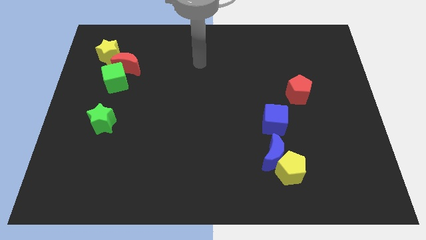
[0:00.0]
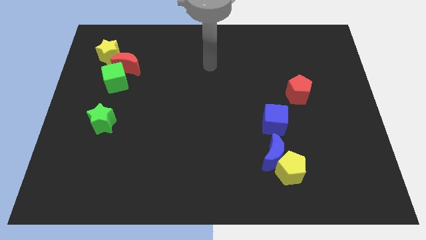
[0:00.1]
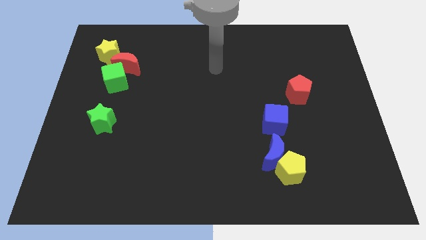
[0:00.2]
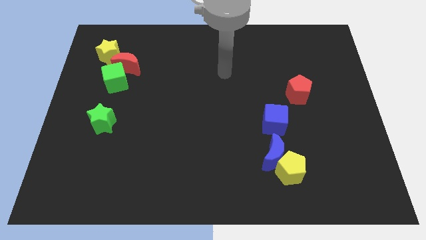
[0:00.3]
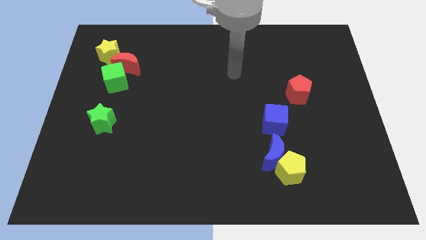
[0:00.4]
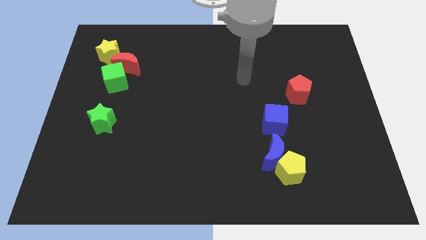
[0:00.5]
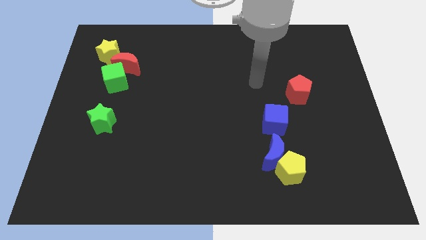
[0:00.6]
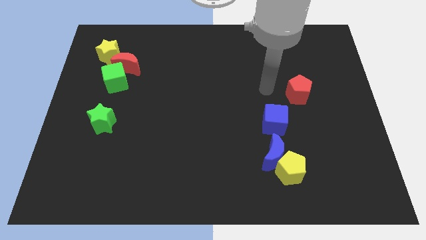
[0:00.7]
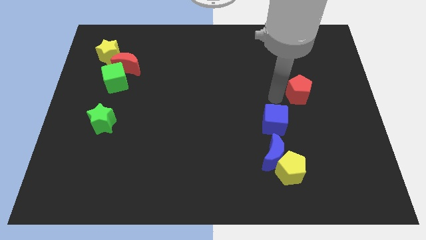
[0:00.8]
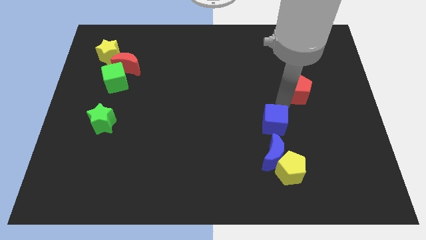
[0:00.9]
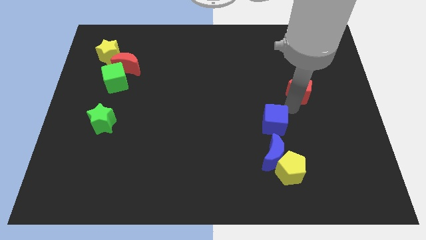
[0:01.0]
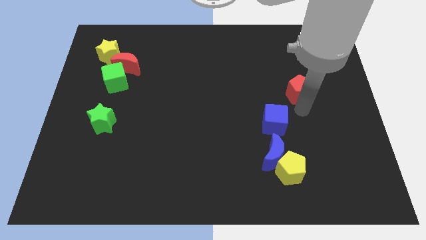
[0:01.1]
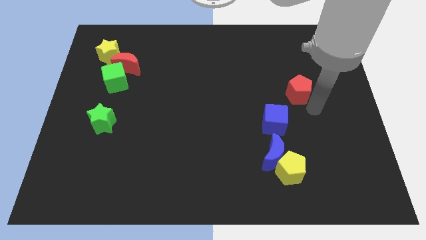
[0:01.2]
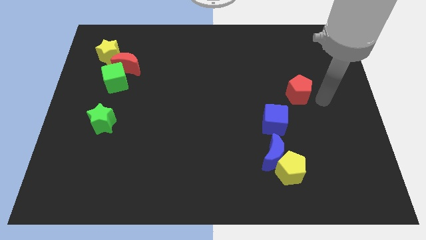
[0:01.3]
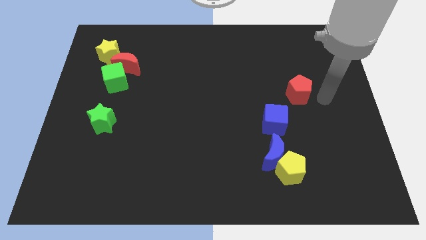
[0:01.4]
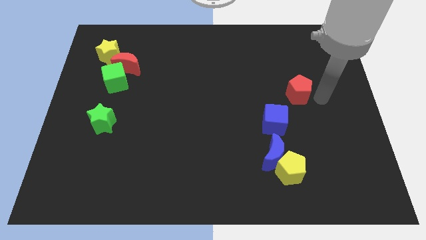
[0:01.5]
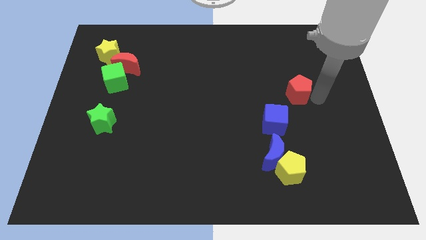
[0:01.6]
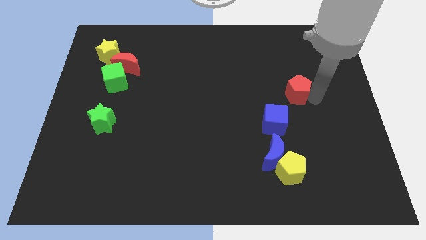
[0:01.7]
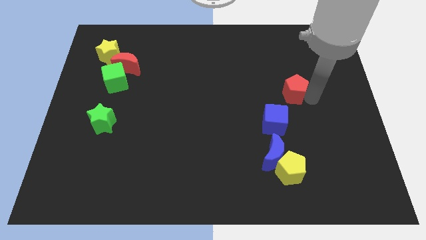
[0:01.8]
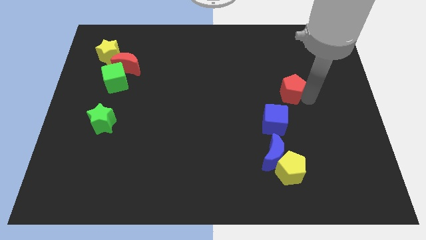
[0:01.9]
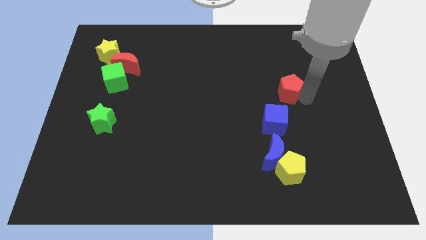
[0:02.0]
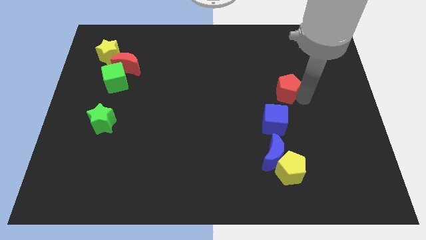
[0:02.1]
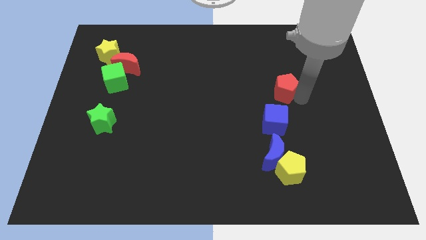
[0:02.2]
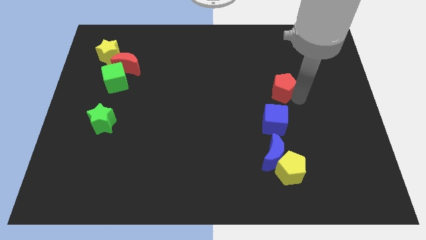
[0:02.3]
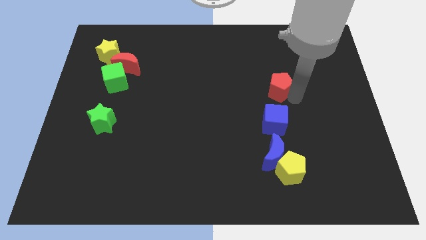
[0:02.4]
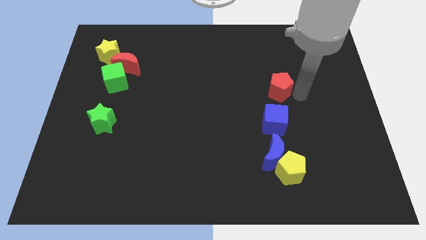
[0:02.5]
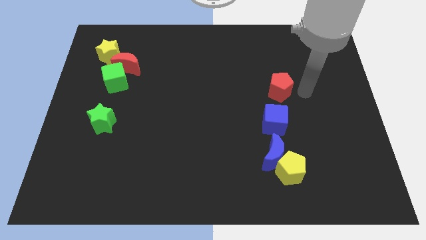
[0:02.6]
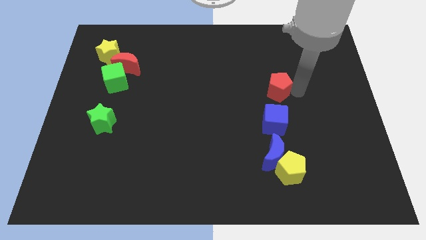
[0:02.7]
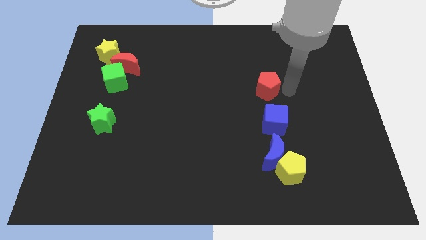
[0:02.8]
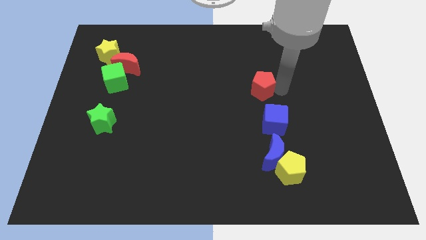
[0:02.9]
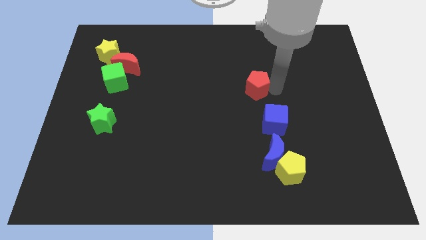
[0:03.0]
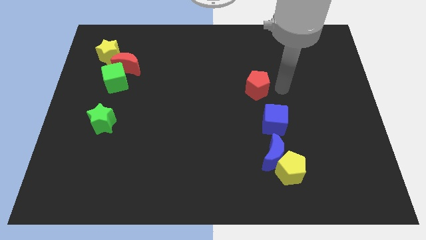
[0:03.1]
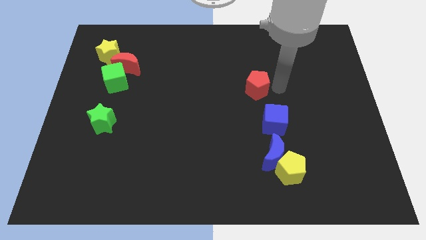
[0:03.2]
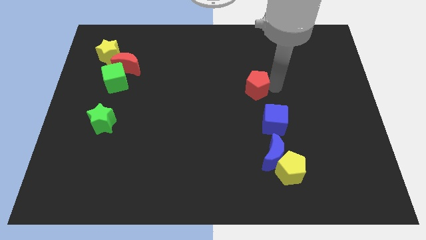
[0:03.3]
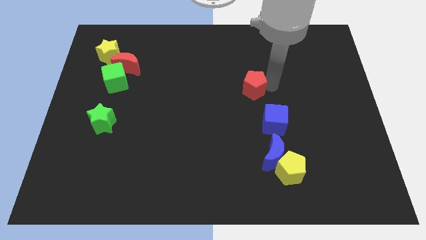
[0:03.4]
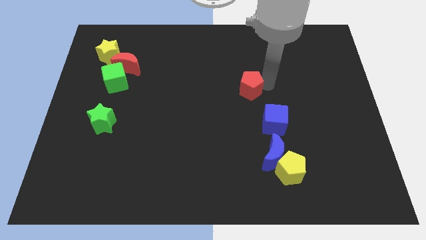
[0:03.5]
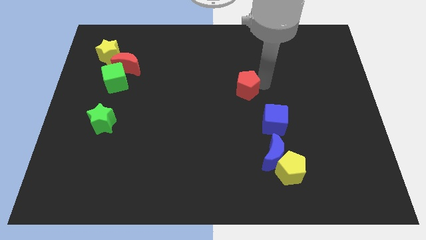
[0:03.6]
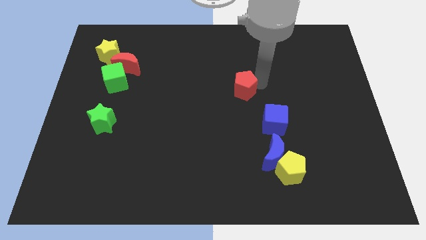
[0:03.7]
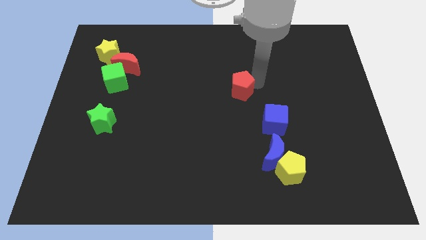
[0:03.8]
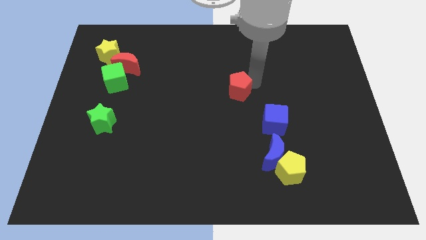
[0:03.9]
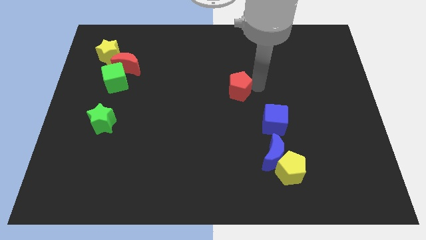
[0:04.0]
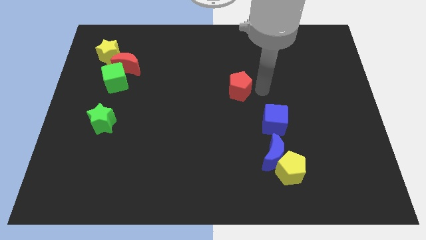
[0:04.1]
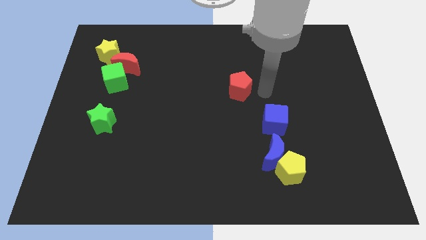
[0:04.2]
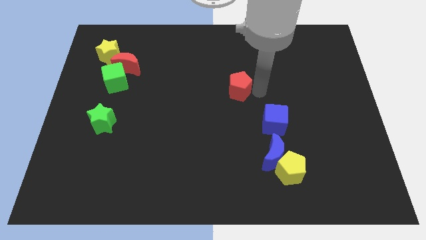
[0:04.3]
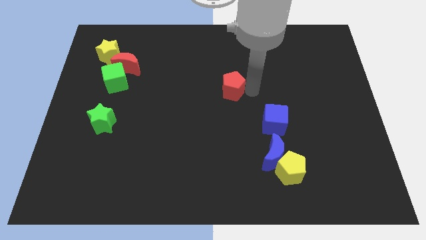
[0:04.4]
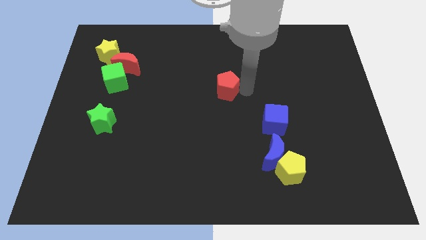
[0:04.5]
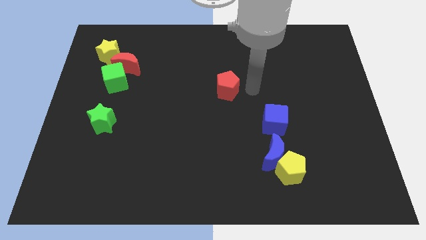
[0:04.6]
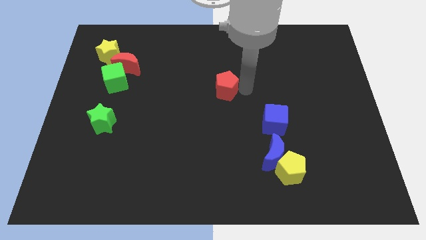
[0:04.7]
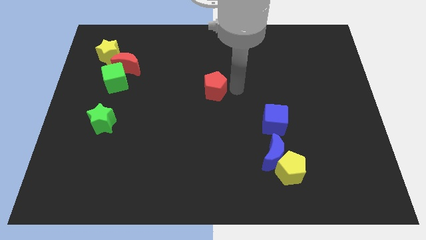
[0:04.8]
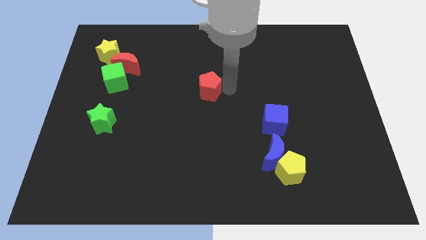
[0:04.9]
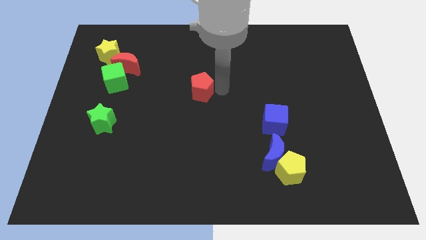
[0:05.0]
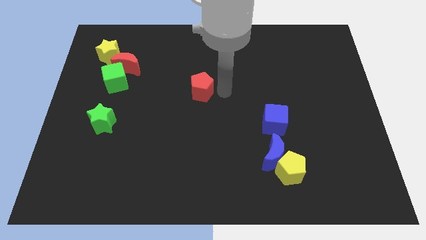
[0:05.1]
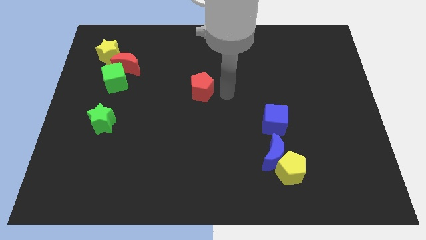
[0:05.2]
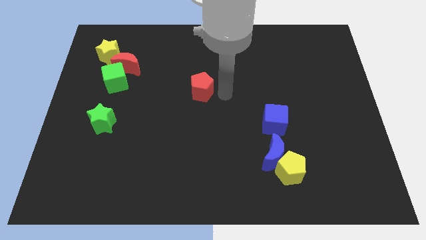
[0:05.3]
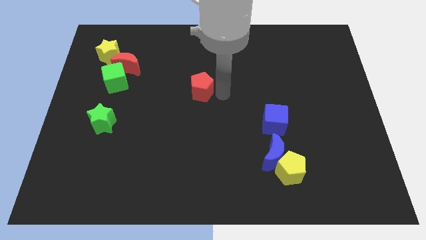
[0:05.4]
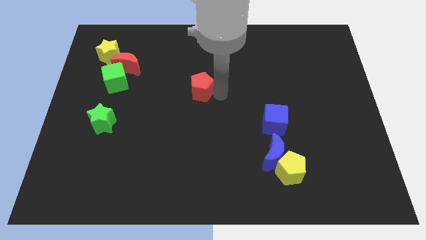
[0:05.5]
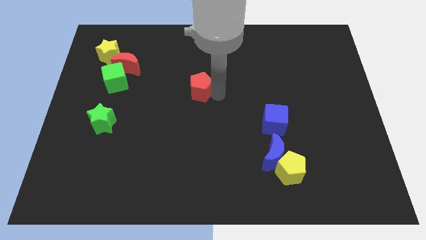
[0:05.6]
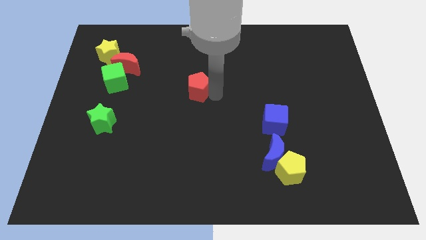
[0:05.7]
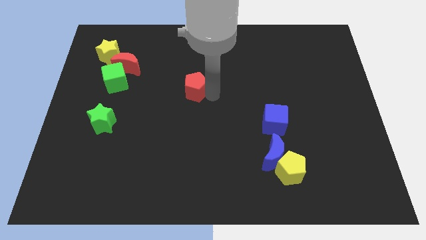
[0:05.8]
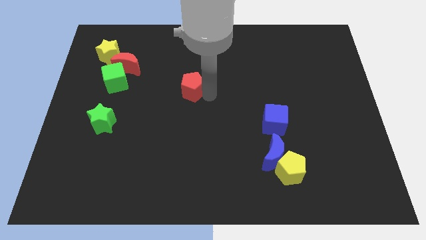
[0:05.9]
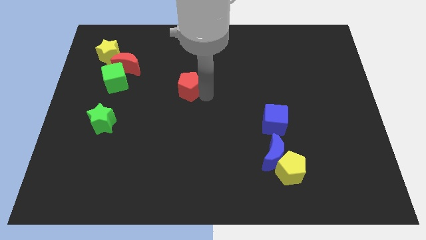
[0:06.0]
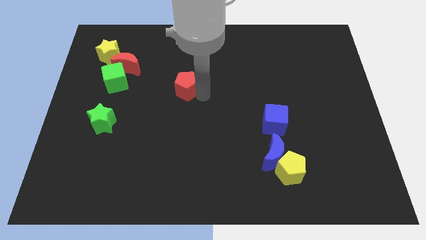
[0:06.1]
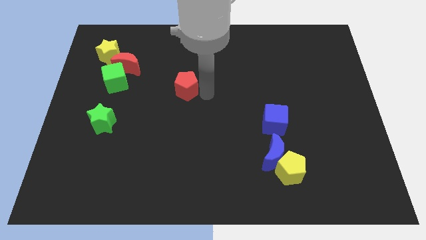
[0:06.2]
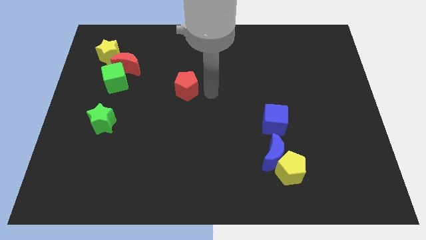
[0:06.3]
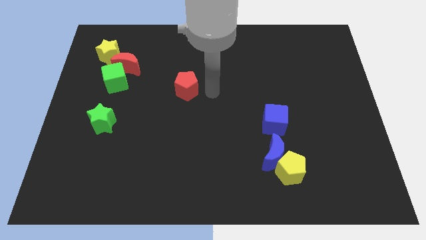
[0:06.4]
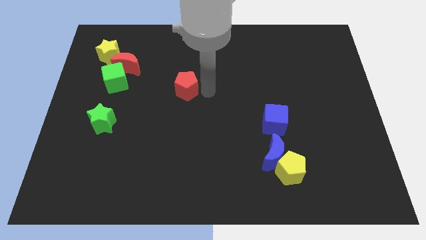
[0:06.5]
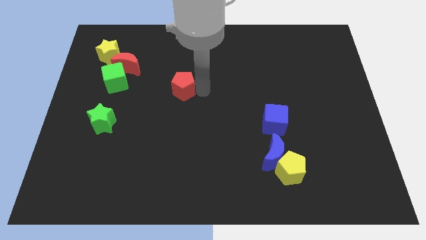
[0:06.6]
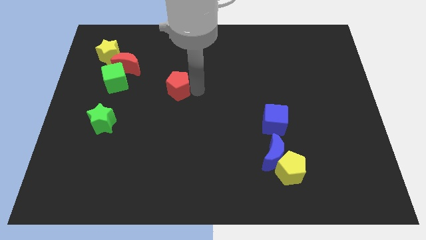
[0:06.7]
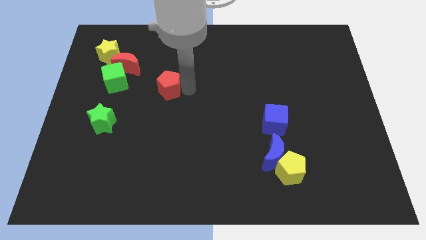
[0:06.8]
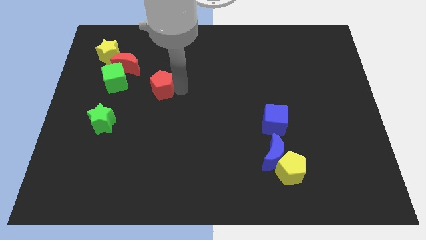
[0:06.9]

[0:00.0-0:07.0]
put the red pentagon diagonally down and to the right of the red moon
